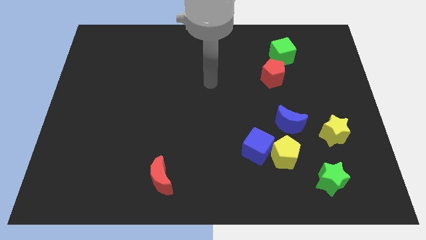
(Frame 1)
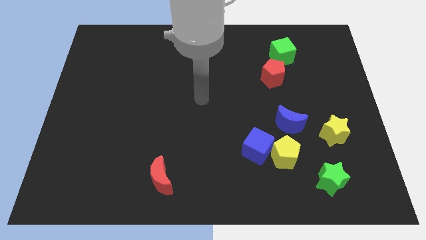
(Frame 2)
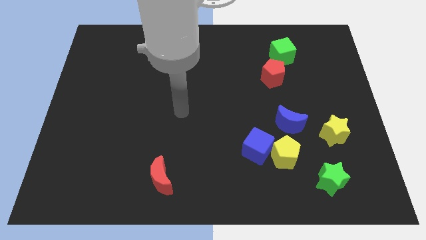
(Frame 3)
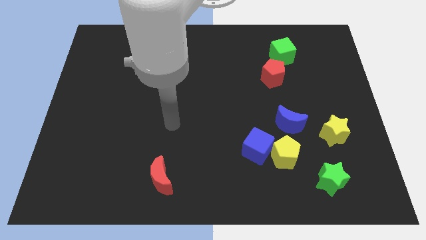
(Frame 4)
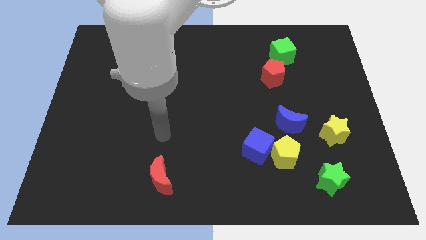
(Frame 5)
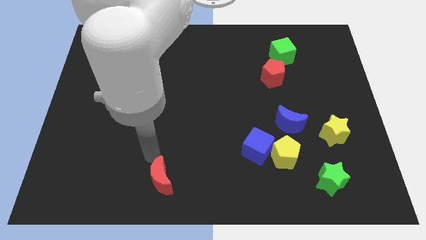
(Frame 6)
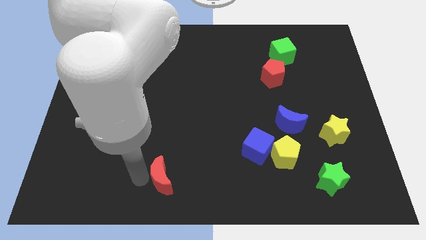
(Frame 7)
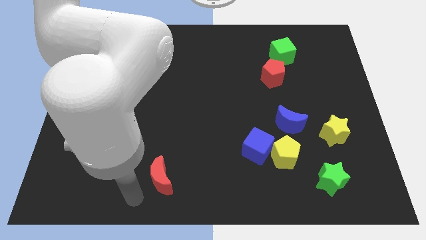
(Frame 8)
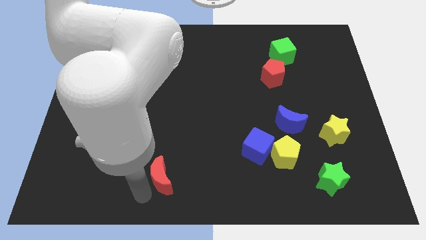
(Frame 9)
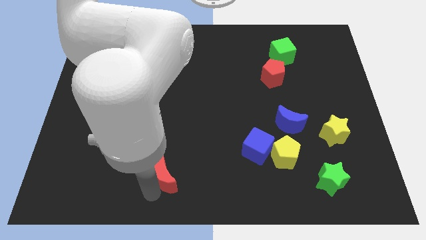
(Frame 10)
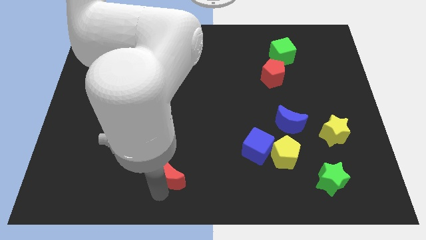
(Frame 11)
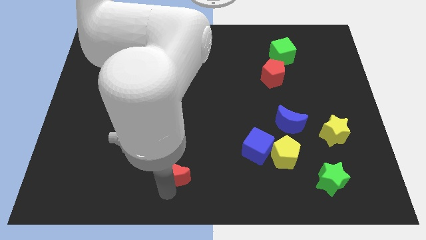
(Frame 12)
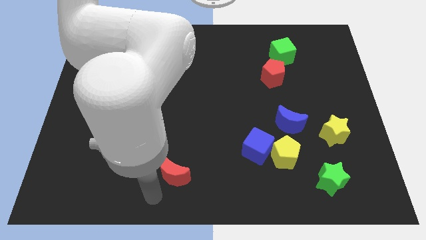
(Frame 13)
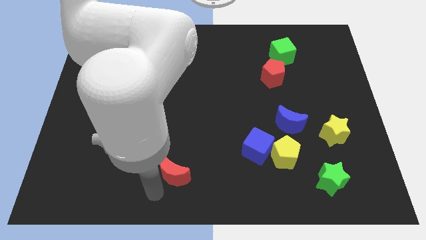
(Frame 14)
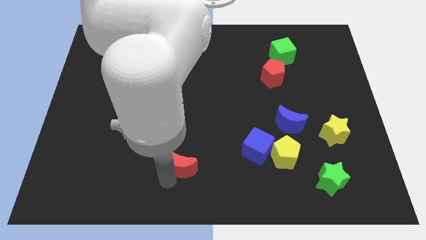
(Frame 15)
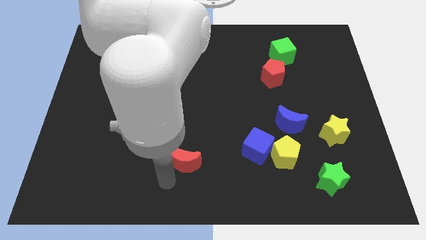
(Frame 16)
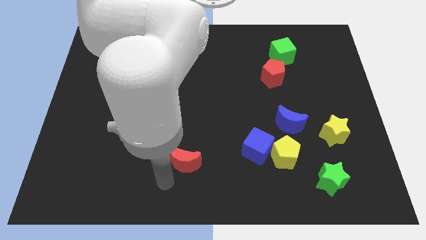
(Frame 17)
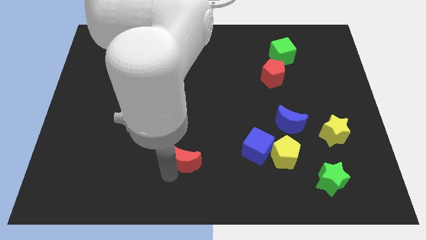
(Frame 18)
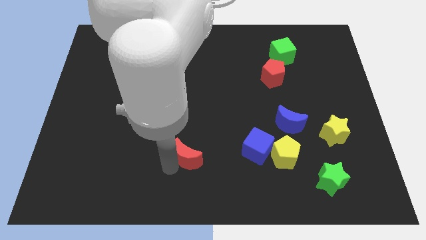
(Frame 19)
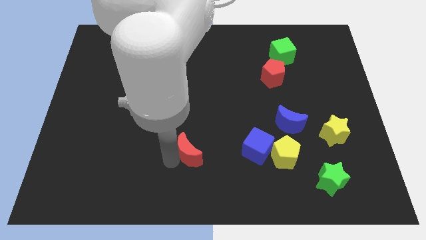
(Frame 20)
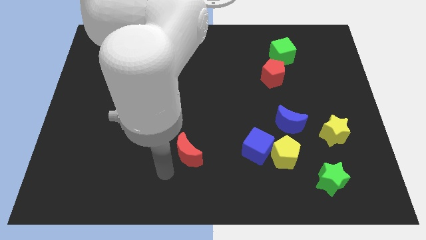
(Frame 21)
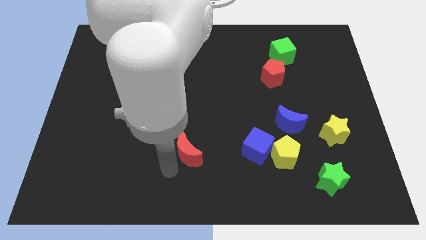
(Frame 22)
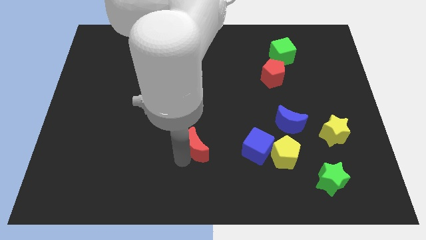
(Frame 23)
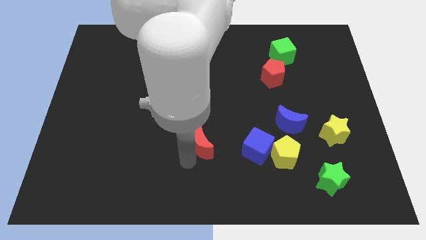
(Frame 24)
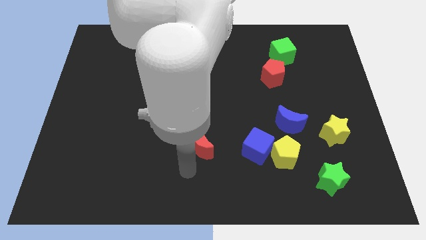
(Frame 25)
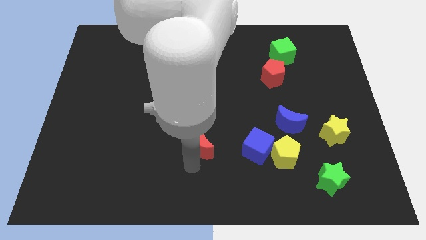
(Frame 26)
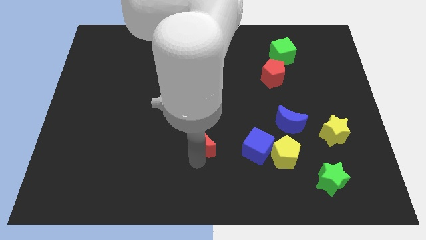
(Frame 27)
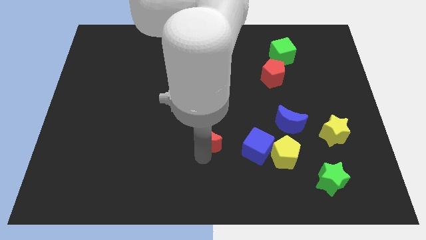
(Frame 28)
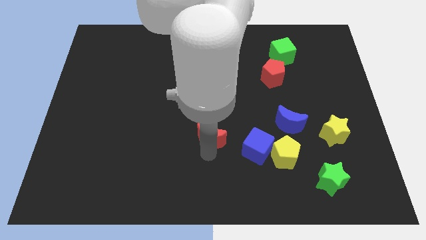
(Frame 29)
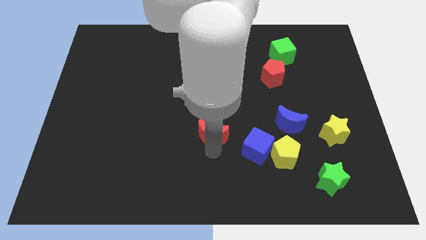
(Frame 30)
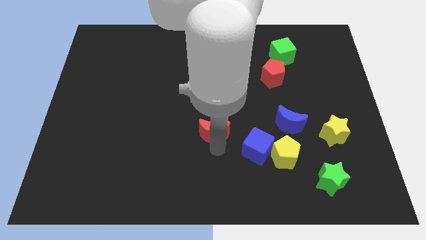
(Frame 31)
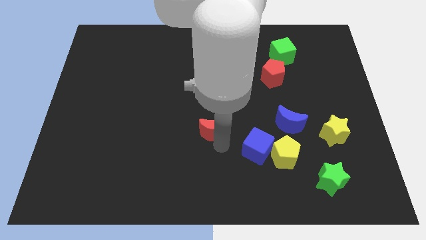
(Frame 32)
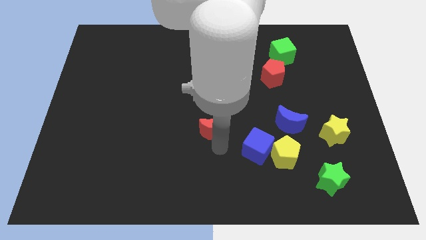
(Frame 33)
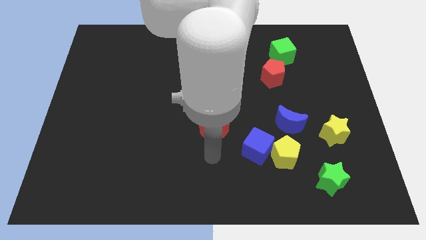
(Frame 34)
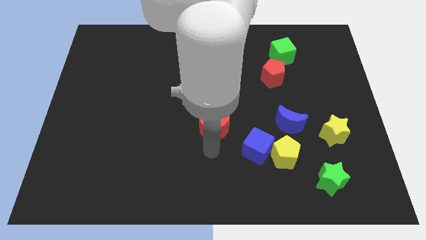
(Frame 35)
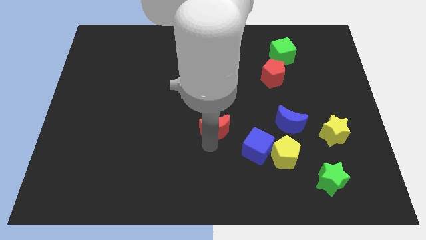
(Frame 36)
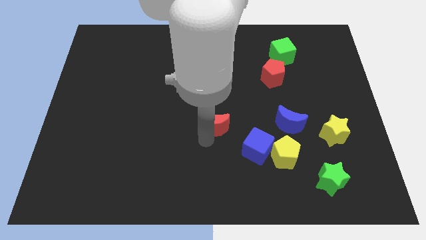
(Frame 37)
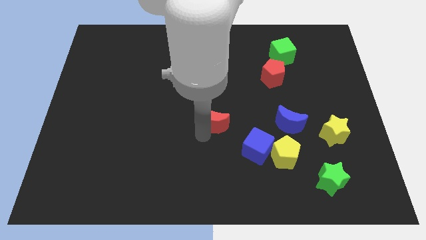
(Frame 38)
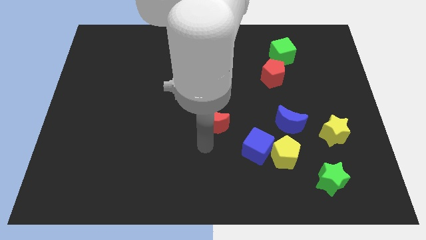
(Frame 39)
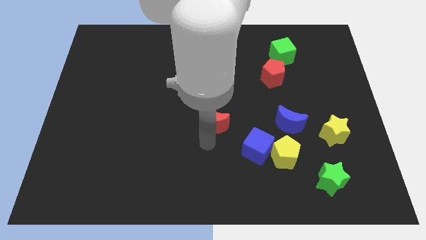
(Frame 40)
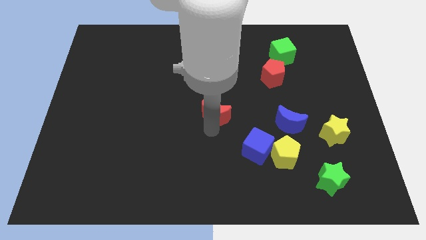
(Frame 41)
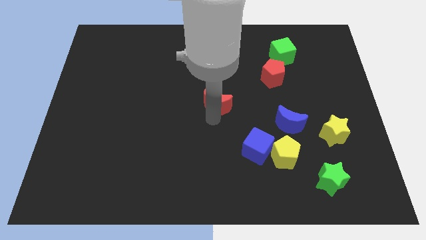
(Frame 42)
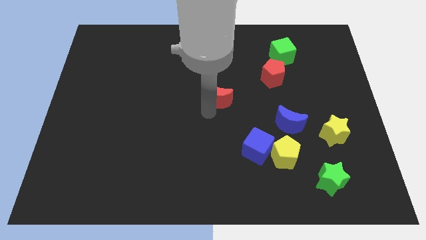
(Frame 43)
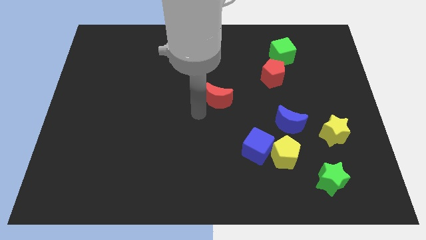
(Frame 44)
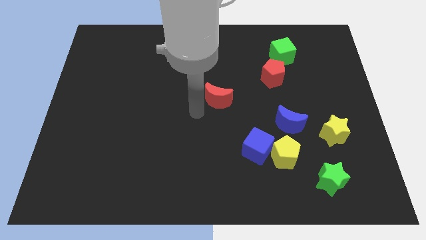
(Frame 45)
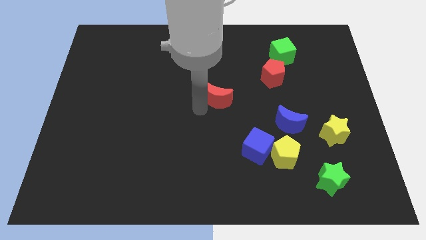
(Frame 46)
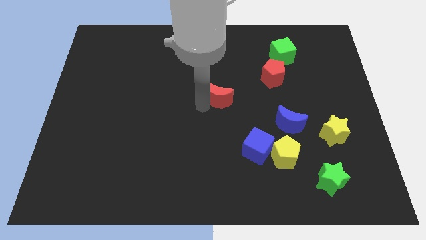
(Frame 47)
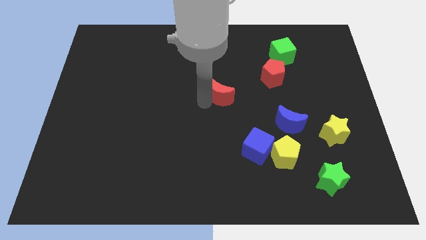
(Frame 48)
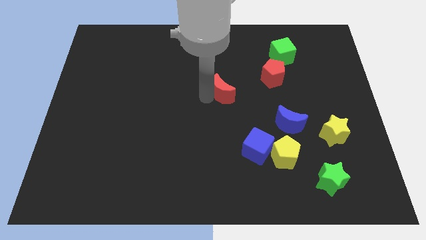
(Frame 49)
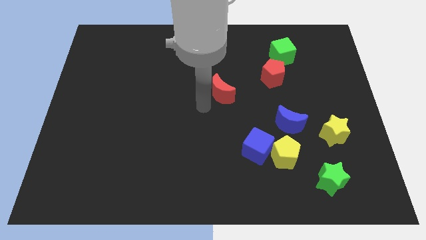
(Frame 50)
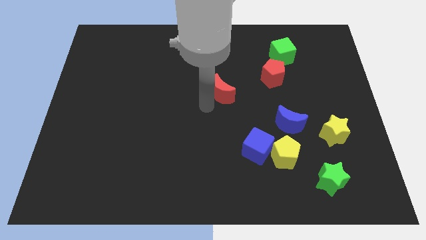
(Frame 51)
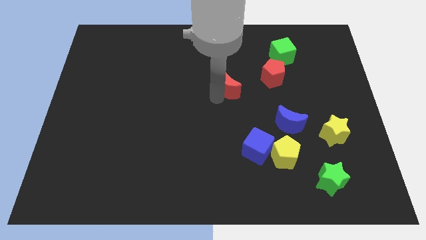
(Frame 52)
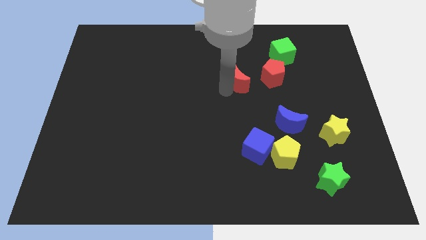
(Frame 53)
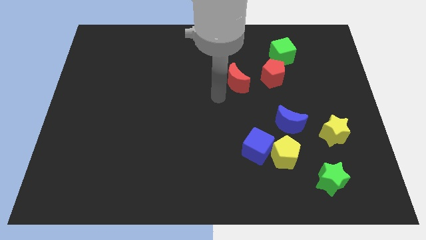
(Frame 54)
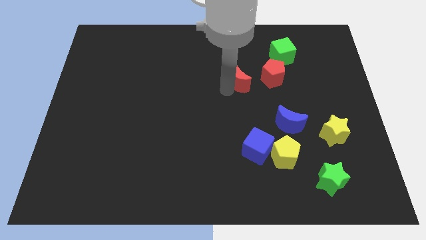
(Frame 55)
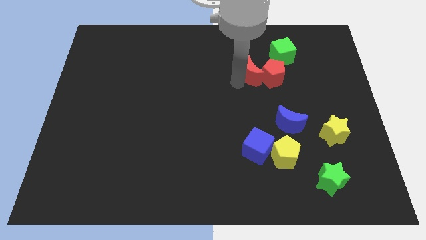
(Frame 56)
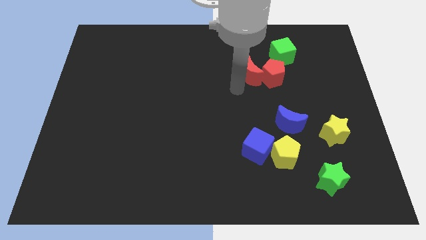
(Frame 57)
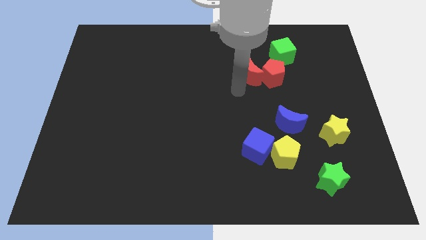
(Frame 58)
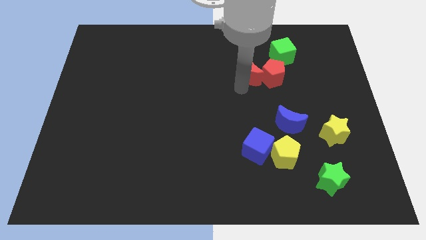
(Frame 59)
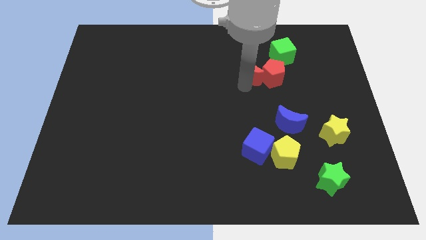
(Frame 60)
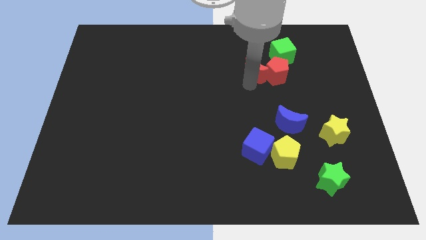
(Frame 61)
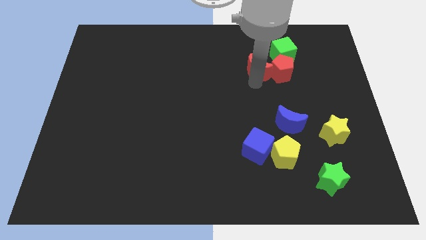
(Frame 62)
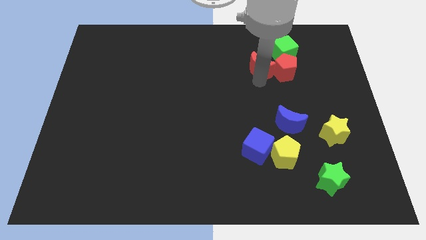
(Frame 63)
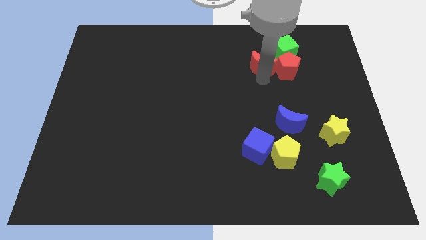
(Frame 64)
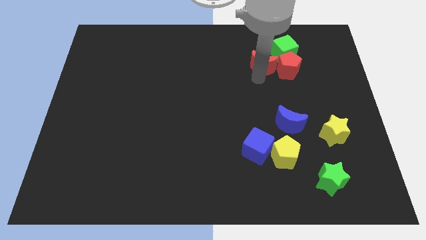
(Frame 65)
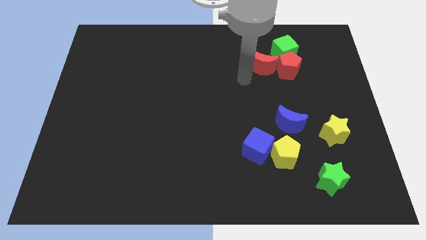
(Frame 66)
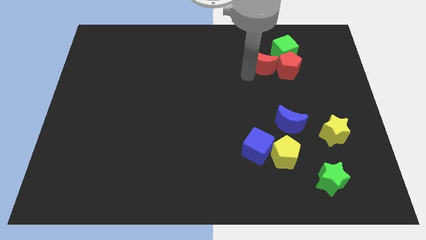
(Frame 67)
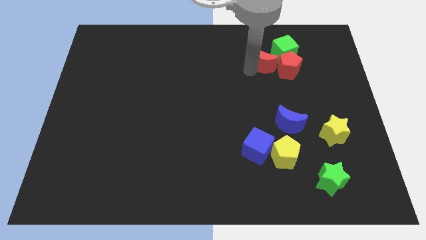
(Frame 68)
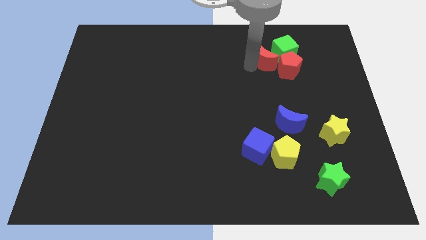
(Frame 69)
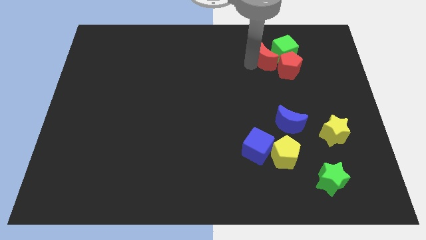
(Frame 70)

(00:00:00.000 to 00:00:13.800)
push the red moon towards the green cube

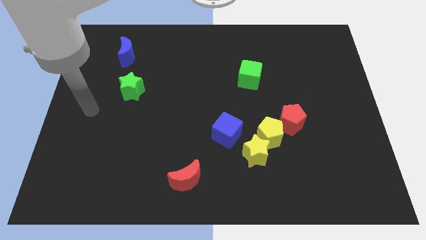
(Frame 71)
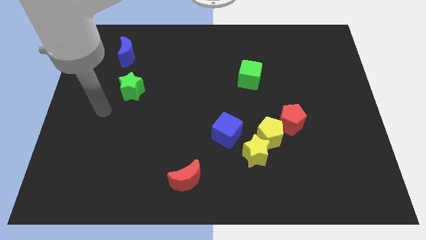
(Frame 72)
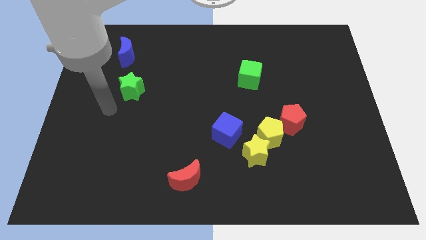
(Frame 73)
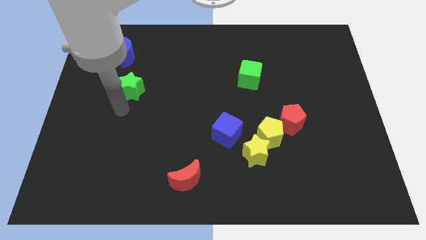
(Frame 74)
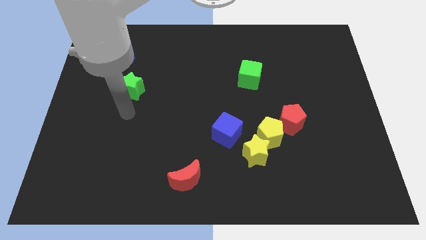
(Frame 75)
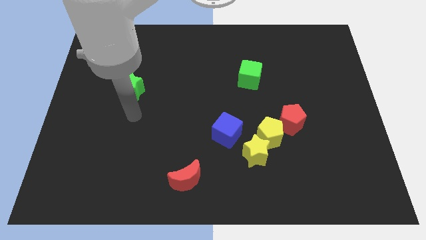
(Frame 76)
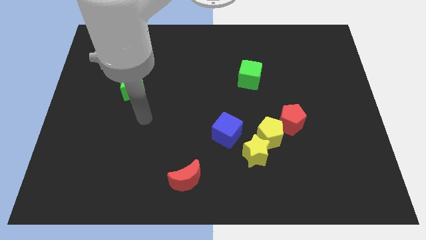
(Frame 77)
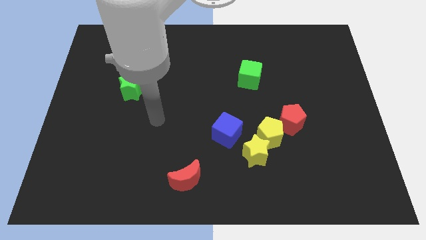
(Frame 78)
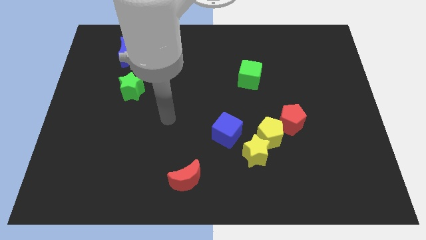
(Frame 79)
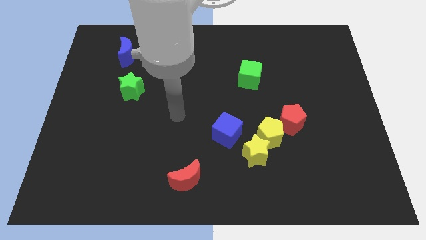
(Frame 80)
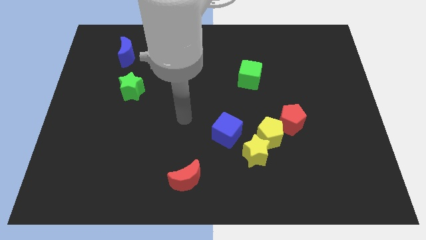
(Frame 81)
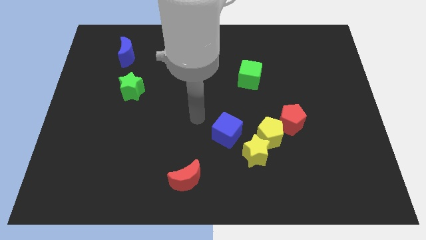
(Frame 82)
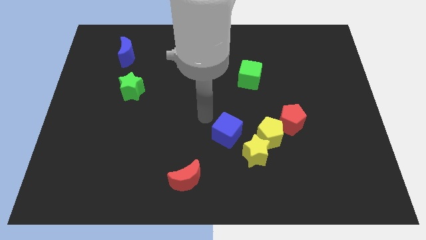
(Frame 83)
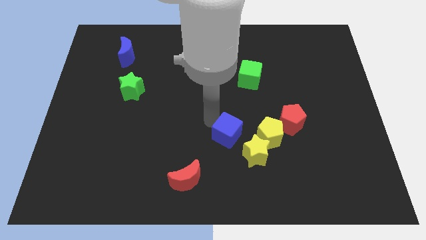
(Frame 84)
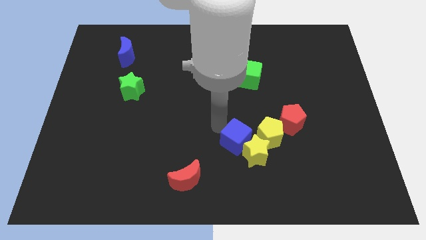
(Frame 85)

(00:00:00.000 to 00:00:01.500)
slide the blue cube towards the yellow star
